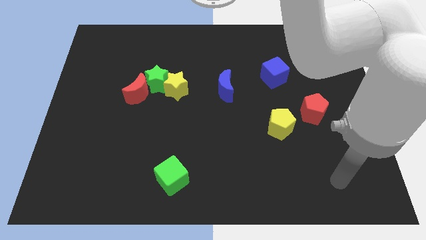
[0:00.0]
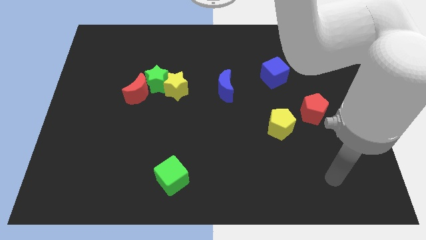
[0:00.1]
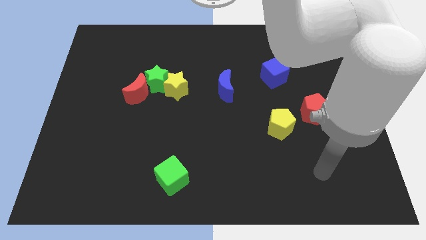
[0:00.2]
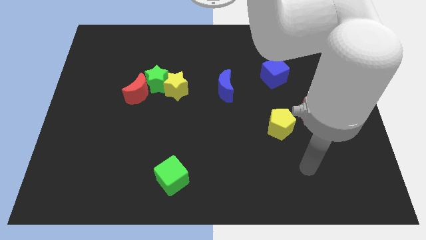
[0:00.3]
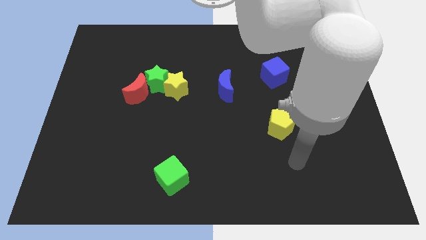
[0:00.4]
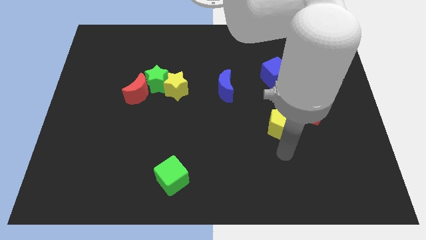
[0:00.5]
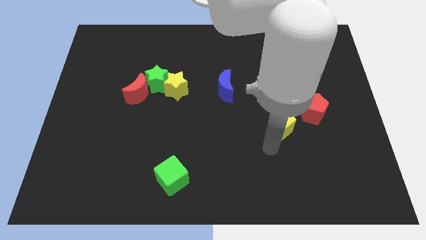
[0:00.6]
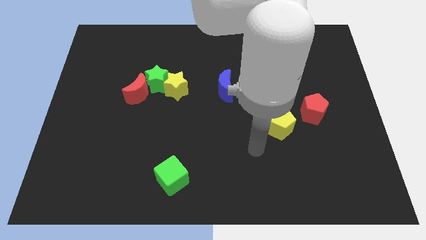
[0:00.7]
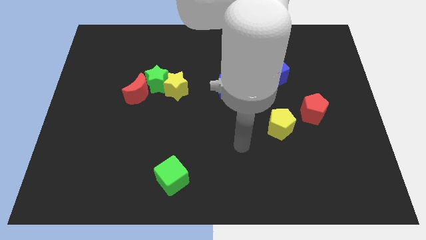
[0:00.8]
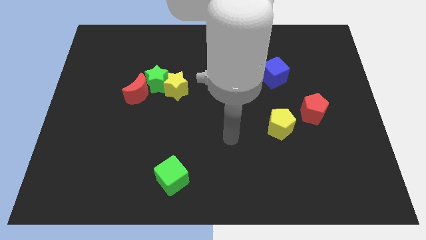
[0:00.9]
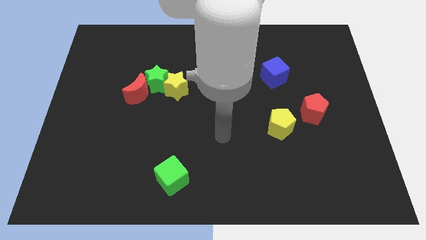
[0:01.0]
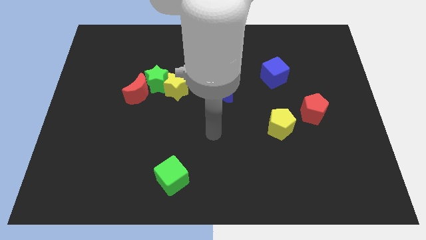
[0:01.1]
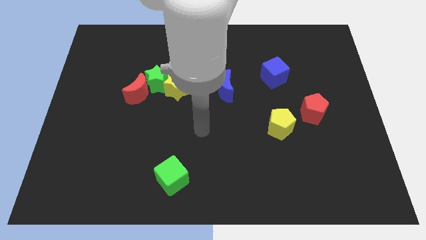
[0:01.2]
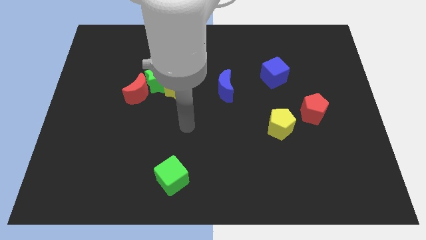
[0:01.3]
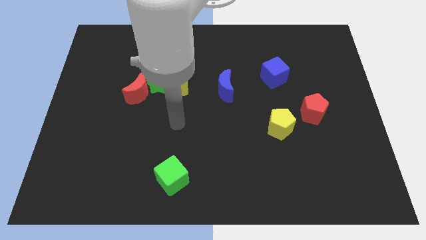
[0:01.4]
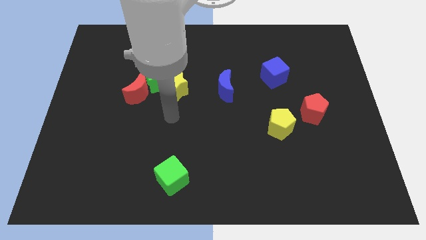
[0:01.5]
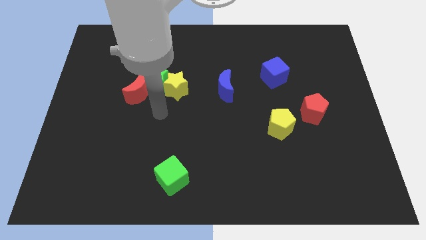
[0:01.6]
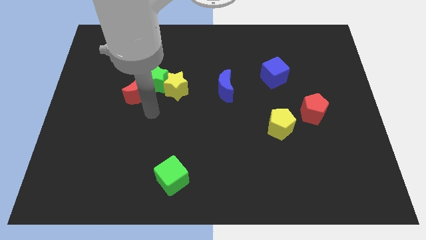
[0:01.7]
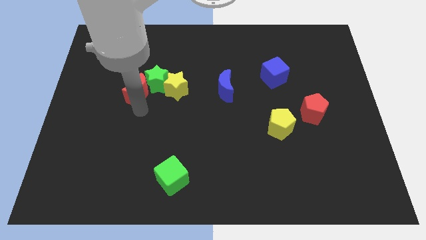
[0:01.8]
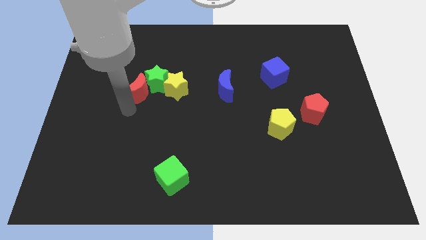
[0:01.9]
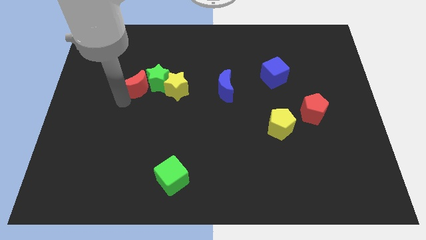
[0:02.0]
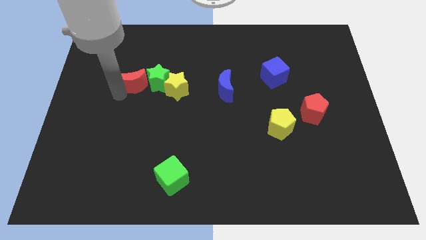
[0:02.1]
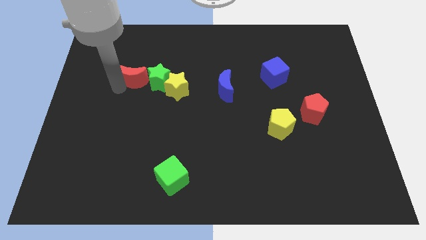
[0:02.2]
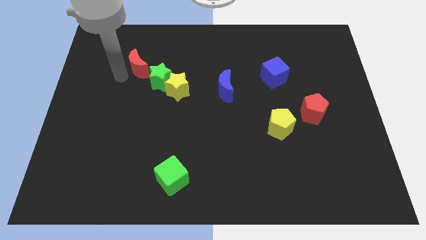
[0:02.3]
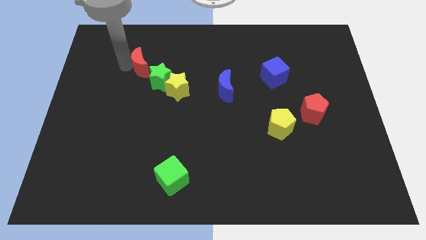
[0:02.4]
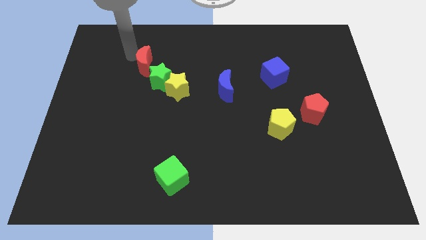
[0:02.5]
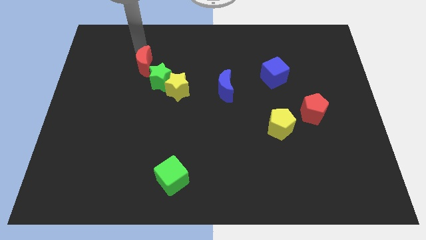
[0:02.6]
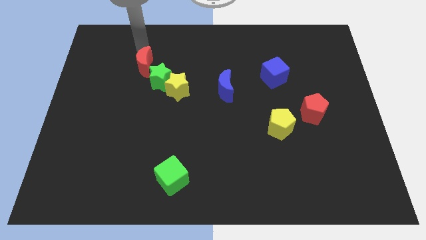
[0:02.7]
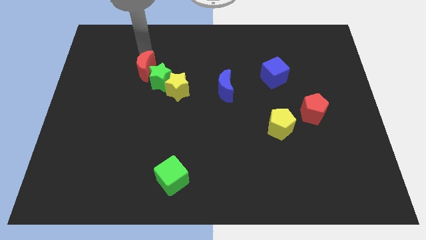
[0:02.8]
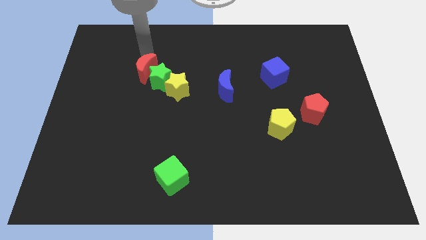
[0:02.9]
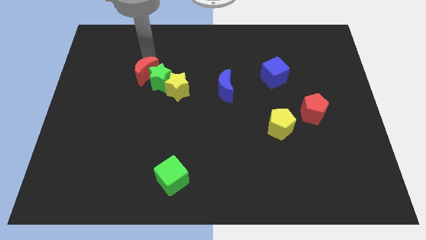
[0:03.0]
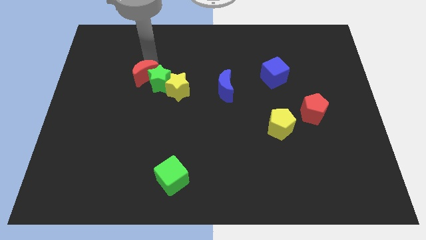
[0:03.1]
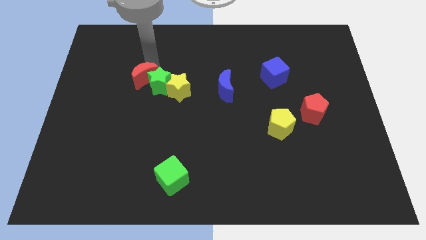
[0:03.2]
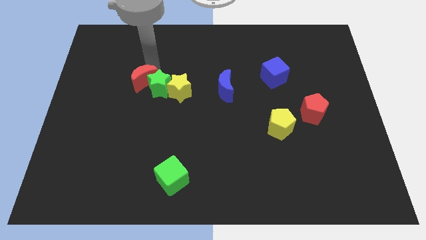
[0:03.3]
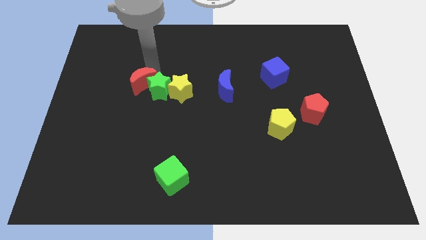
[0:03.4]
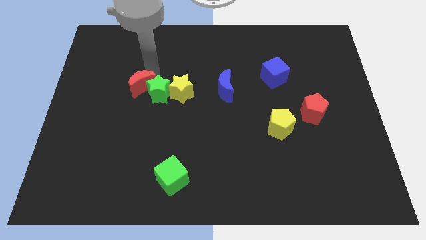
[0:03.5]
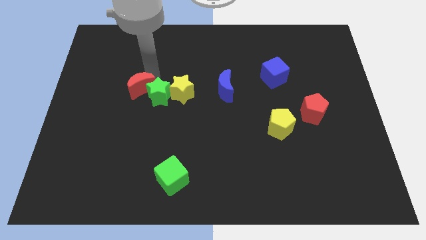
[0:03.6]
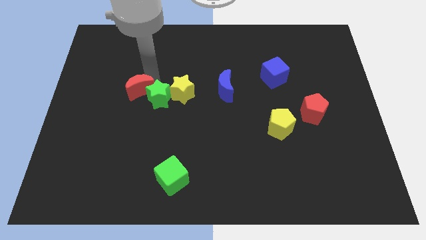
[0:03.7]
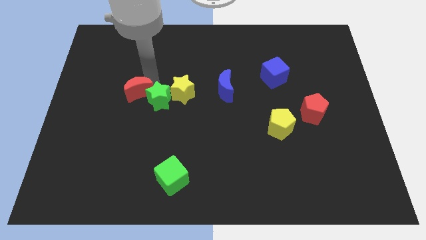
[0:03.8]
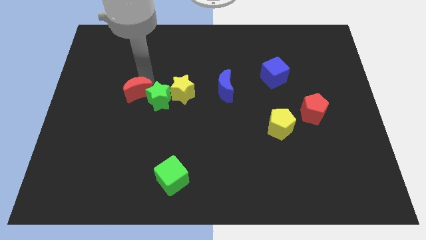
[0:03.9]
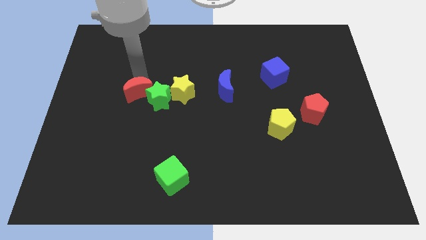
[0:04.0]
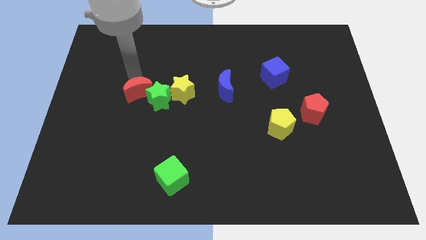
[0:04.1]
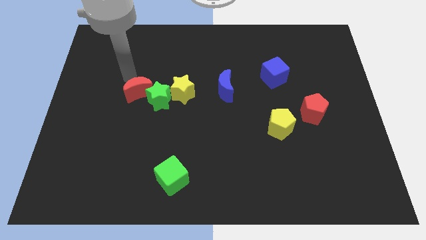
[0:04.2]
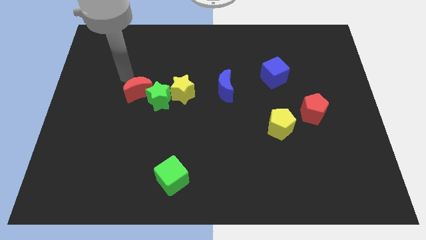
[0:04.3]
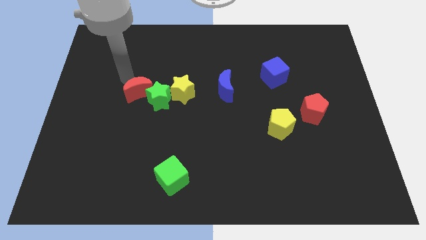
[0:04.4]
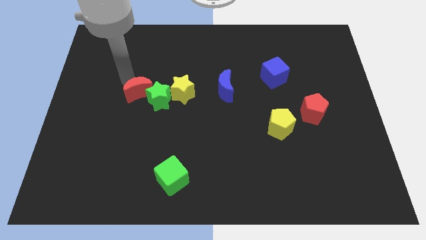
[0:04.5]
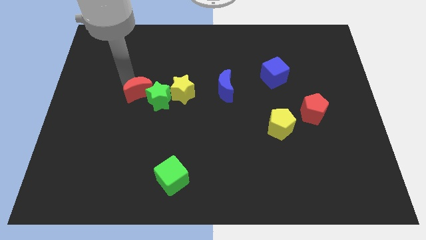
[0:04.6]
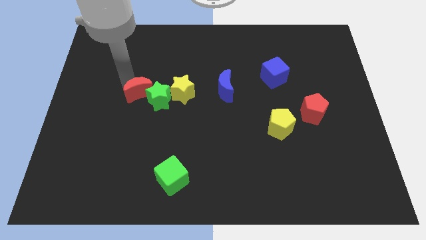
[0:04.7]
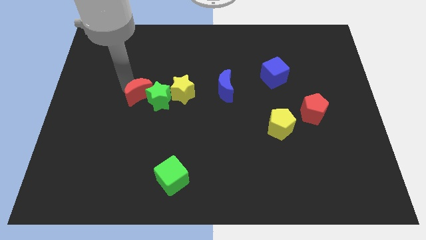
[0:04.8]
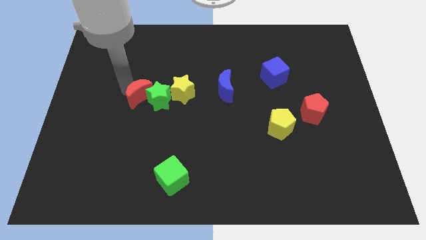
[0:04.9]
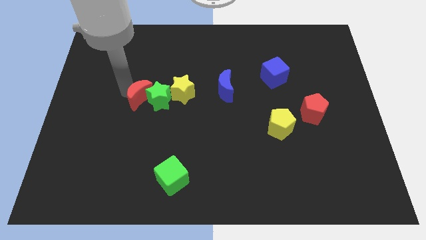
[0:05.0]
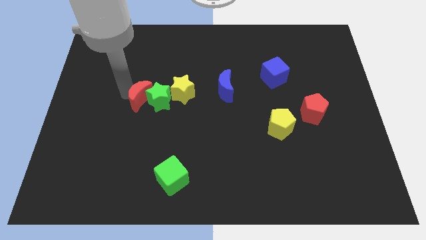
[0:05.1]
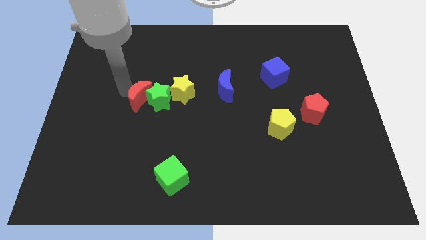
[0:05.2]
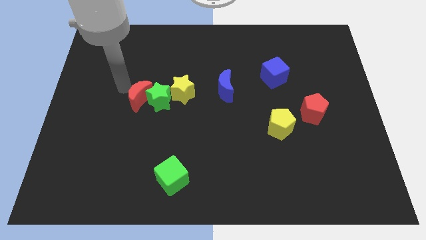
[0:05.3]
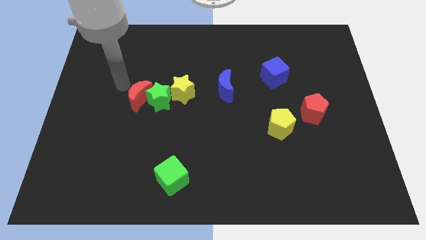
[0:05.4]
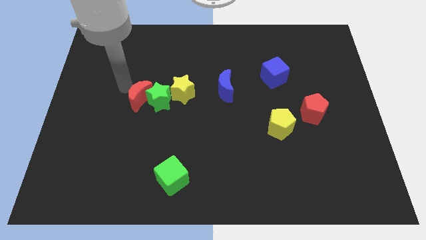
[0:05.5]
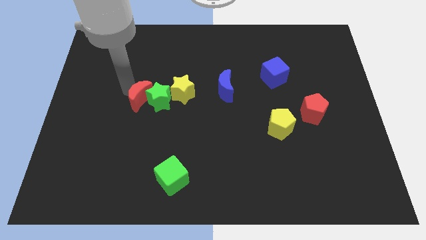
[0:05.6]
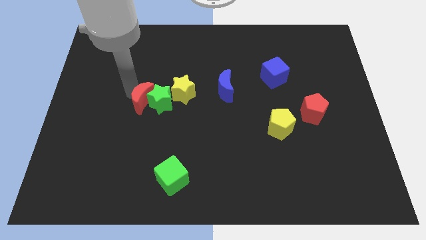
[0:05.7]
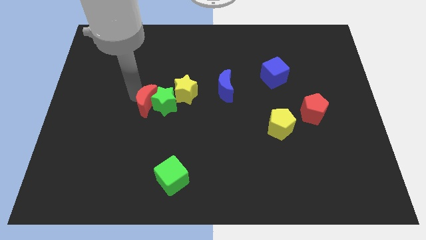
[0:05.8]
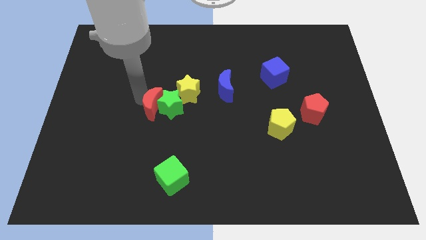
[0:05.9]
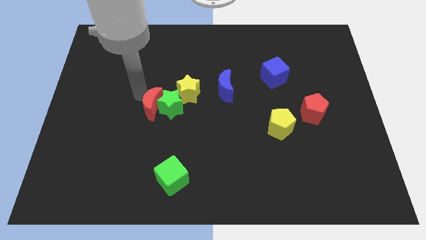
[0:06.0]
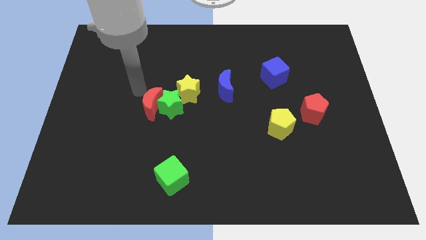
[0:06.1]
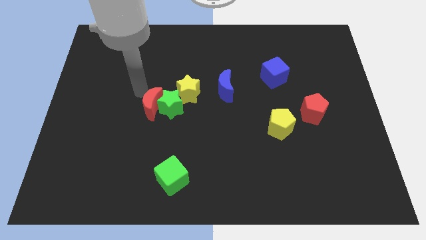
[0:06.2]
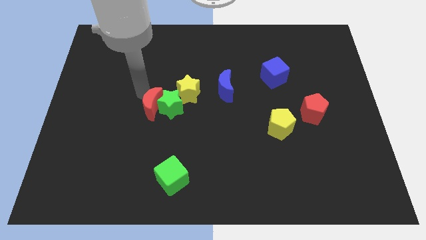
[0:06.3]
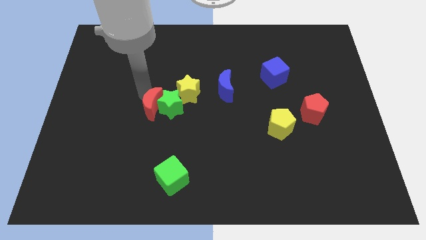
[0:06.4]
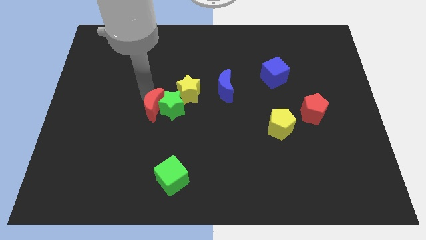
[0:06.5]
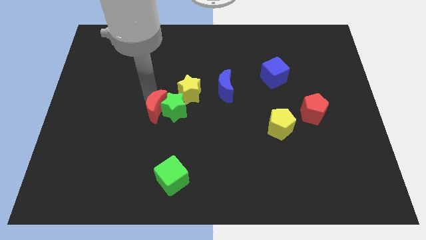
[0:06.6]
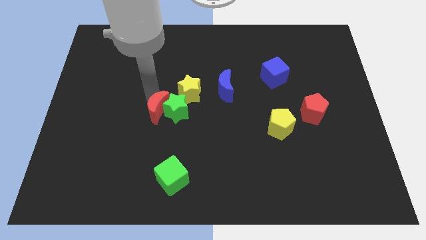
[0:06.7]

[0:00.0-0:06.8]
push the red moon somewhat downwards and then right

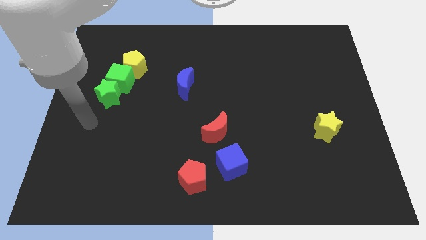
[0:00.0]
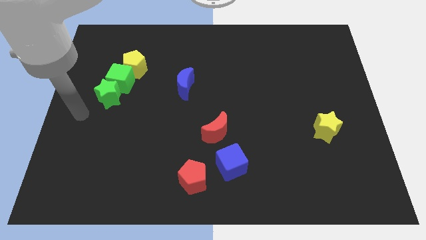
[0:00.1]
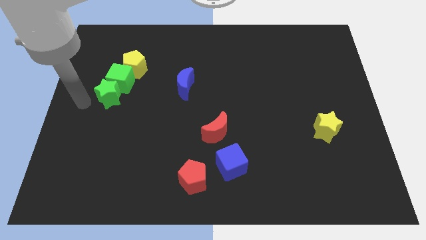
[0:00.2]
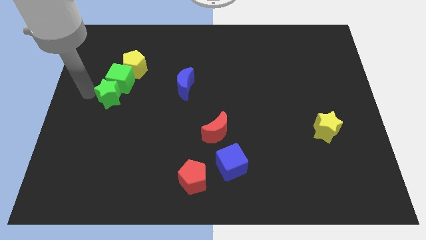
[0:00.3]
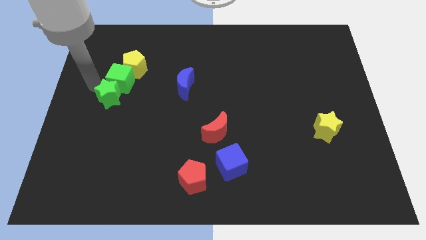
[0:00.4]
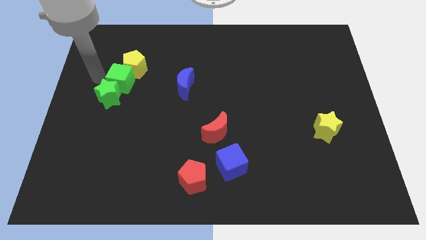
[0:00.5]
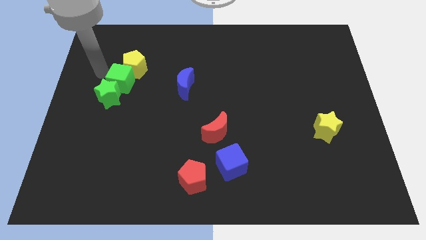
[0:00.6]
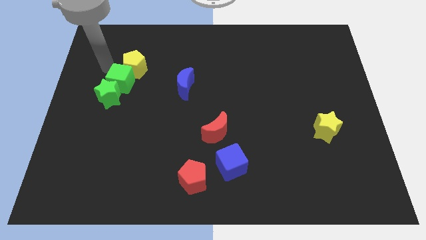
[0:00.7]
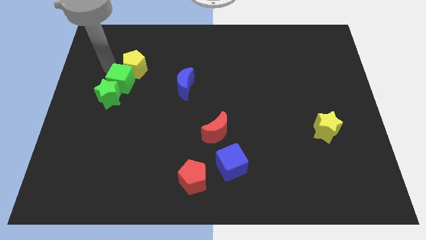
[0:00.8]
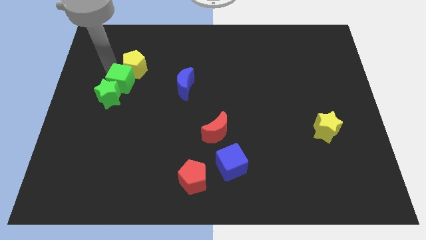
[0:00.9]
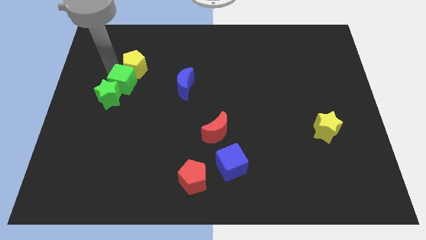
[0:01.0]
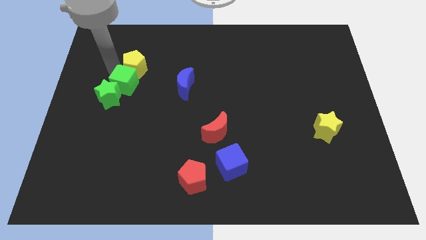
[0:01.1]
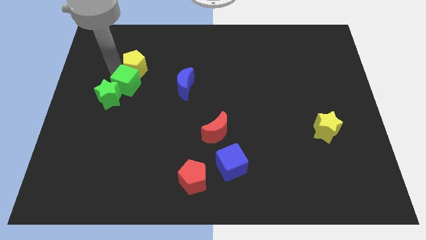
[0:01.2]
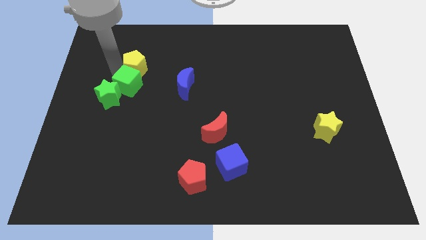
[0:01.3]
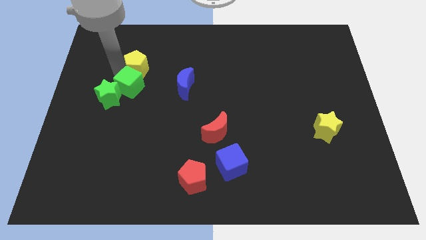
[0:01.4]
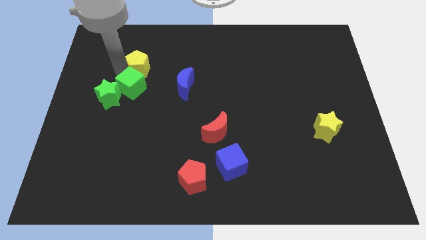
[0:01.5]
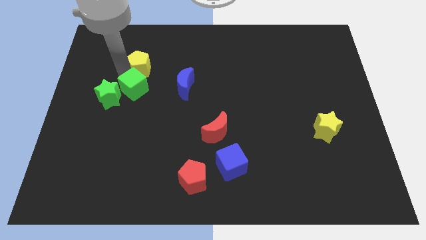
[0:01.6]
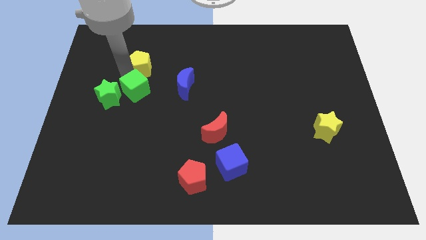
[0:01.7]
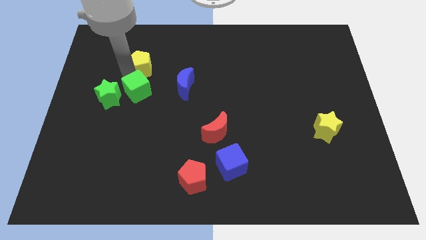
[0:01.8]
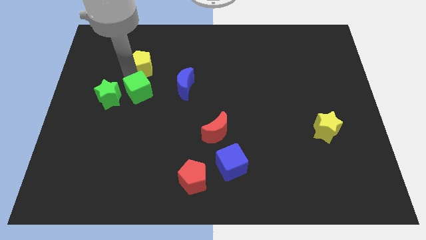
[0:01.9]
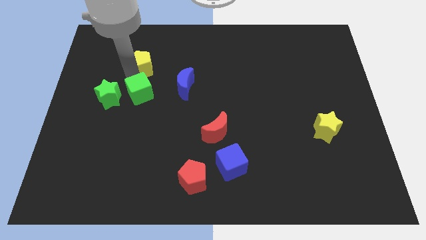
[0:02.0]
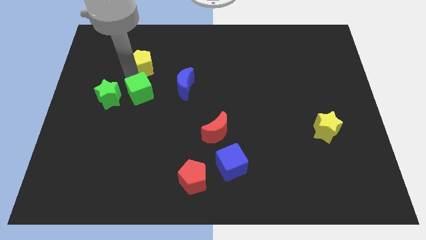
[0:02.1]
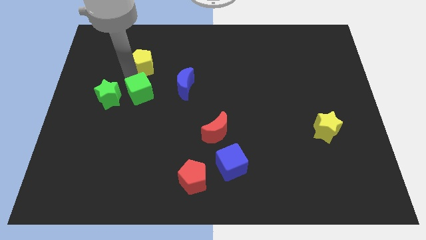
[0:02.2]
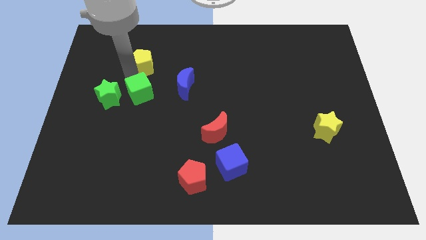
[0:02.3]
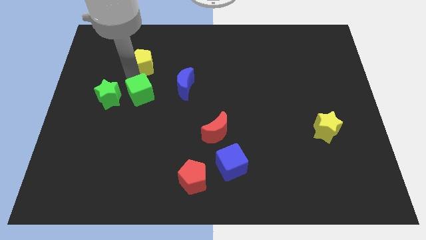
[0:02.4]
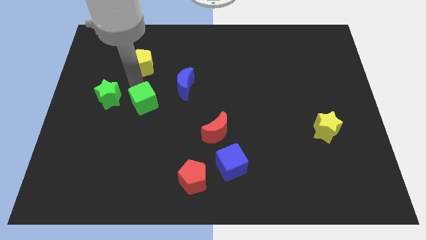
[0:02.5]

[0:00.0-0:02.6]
move the green cube slightly diagonally down and right
